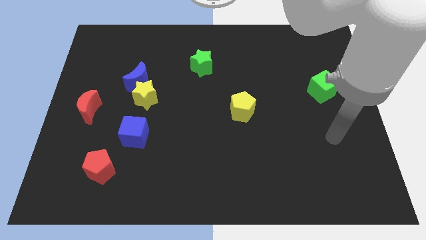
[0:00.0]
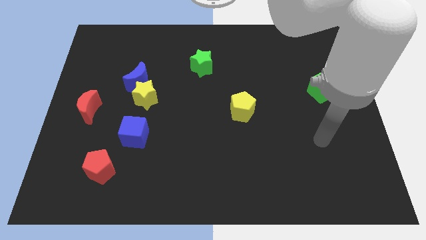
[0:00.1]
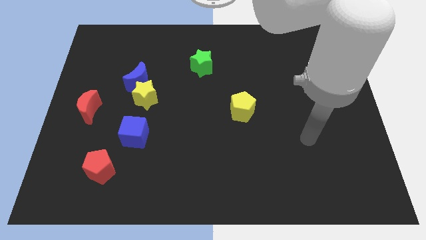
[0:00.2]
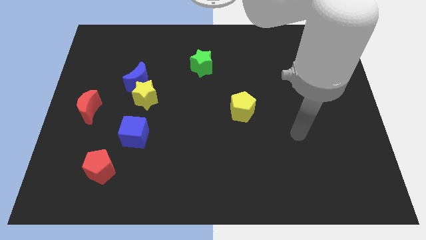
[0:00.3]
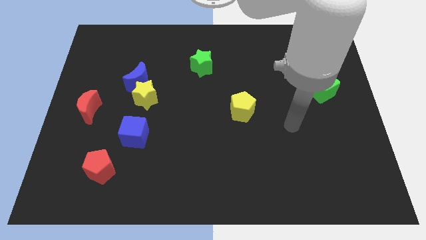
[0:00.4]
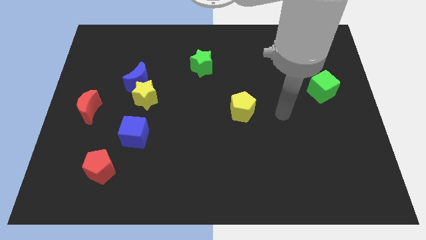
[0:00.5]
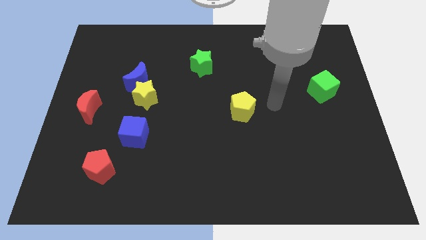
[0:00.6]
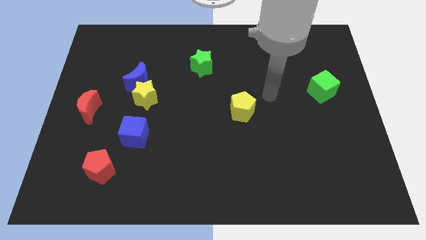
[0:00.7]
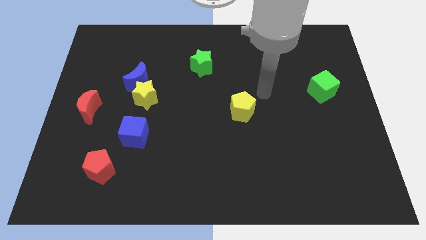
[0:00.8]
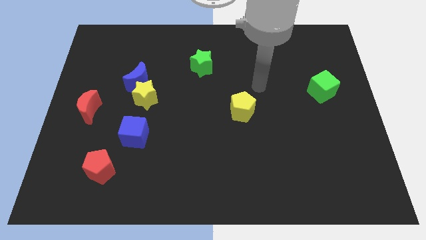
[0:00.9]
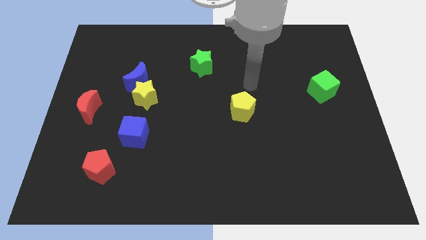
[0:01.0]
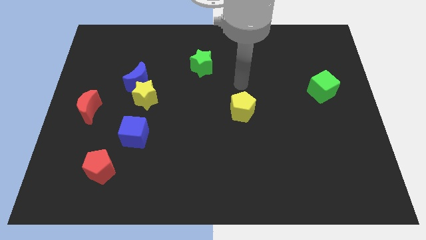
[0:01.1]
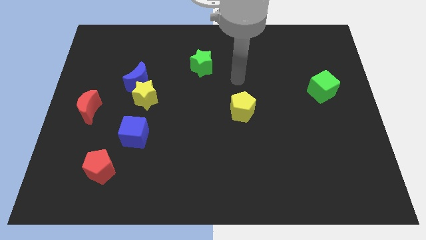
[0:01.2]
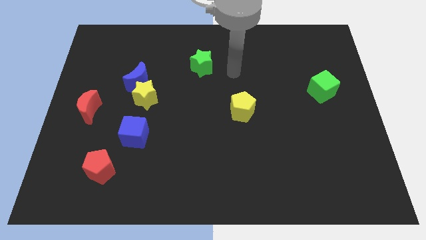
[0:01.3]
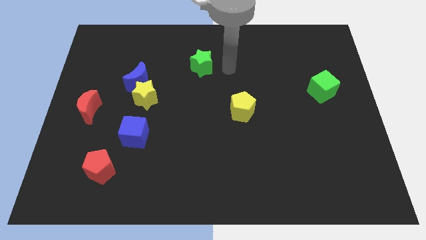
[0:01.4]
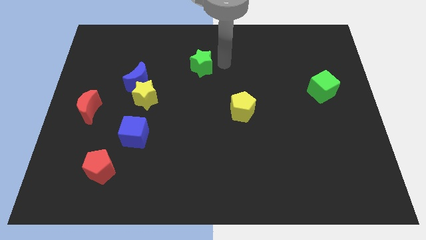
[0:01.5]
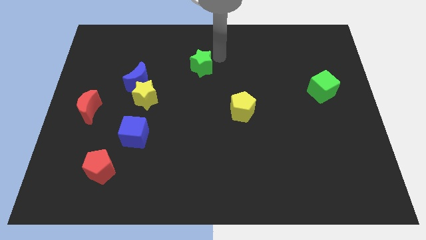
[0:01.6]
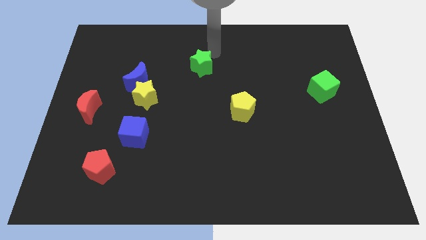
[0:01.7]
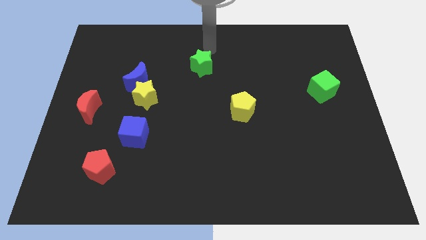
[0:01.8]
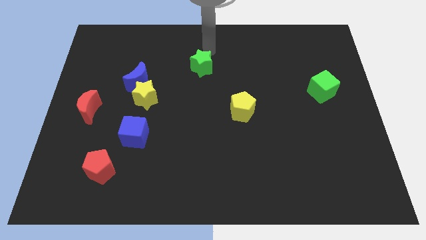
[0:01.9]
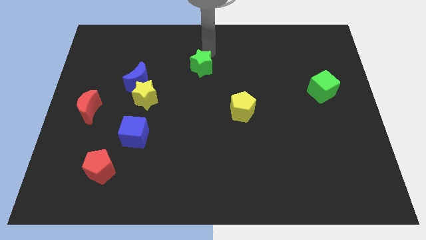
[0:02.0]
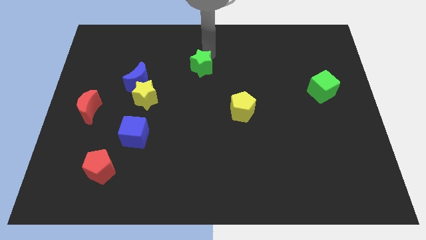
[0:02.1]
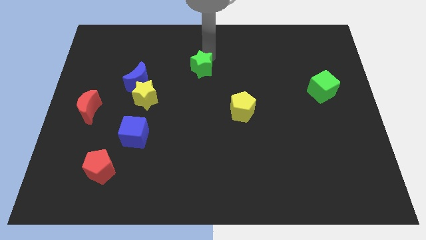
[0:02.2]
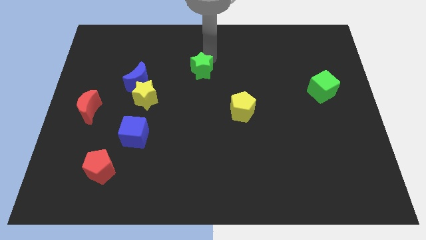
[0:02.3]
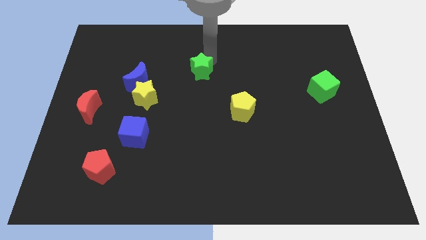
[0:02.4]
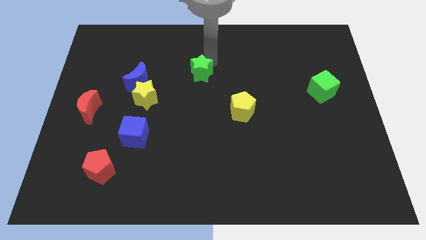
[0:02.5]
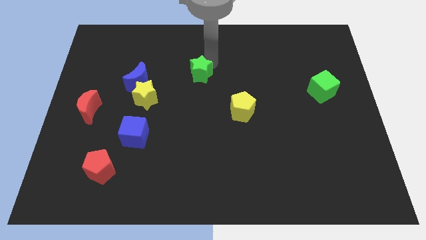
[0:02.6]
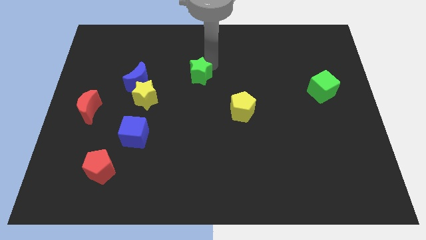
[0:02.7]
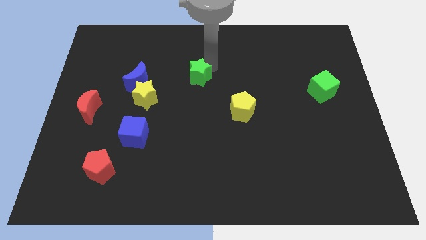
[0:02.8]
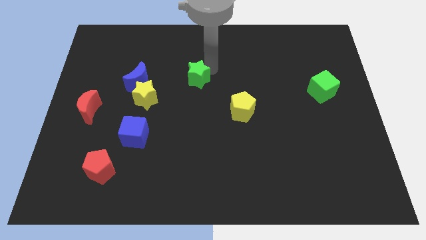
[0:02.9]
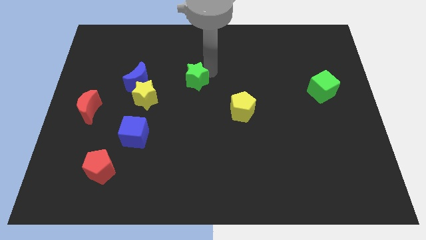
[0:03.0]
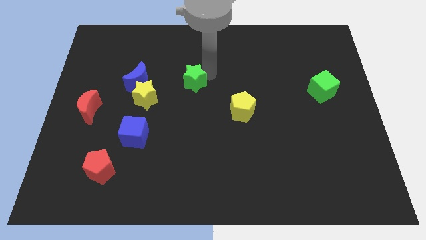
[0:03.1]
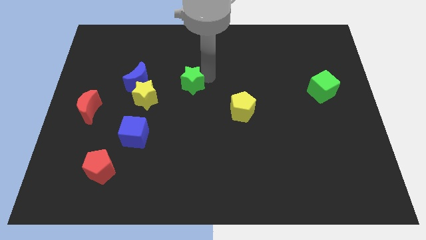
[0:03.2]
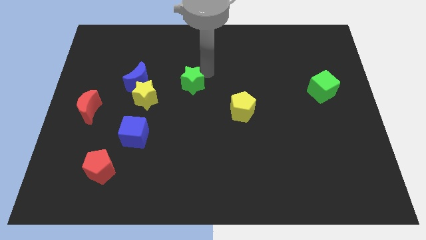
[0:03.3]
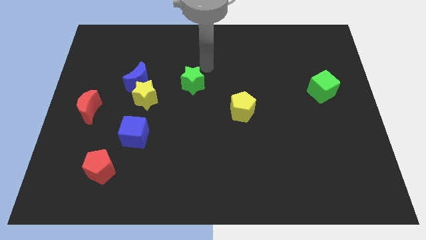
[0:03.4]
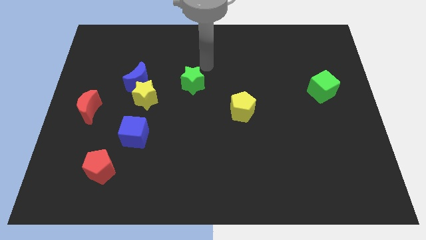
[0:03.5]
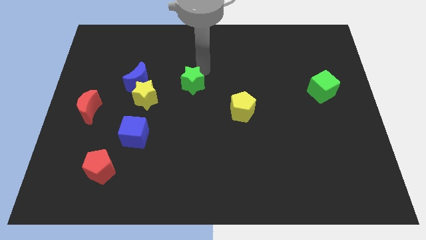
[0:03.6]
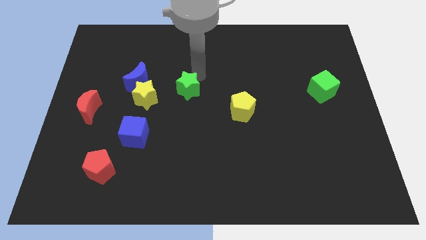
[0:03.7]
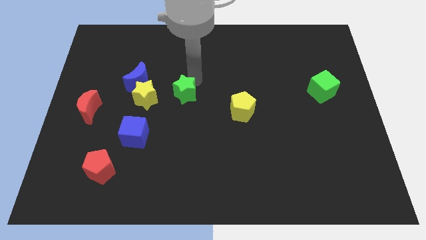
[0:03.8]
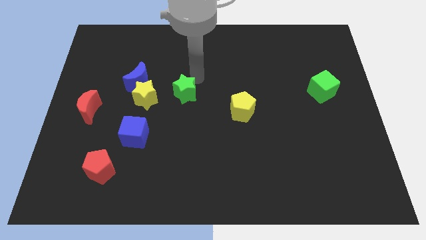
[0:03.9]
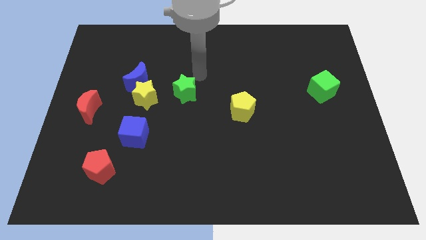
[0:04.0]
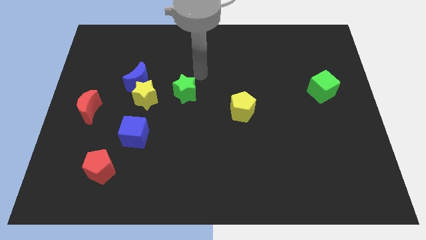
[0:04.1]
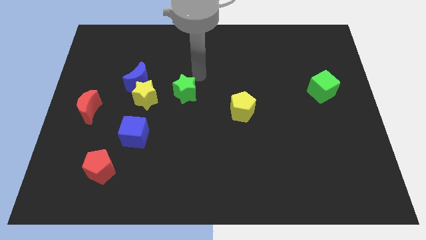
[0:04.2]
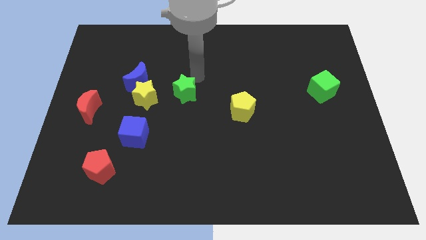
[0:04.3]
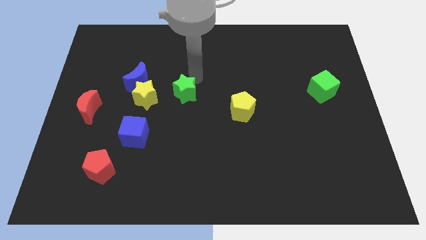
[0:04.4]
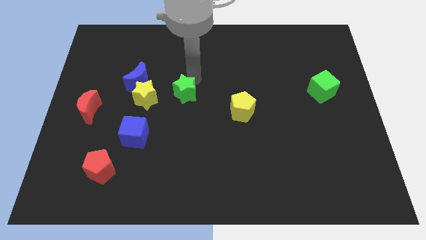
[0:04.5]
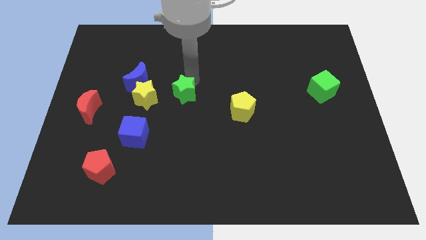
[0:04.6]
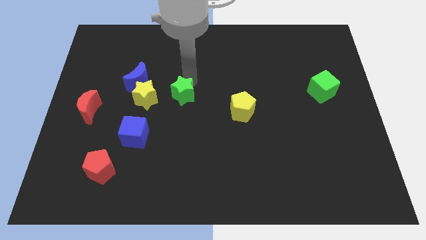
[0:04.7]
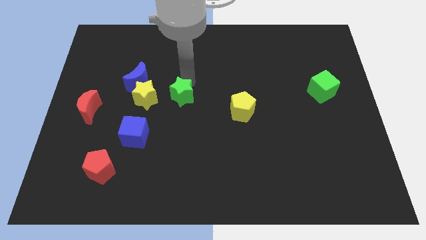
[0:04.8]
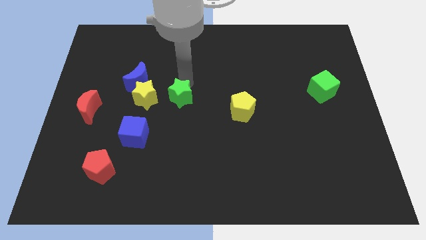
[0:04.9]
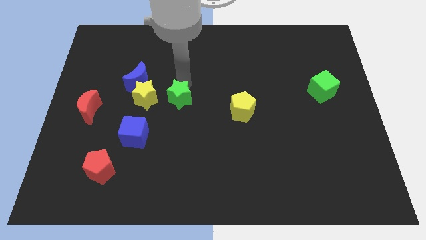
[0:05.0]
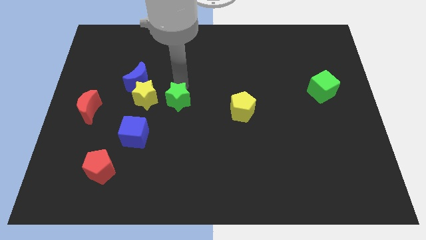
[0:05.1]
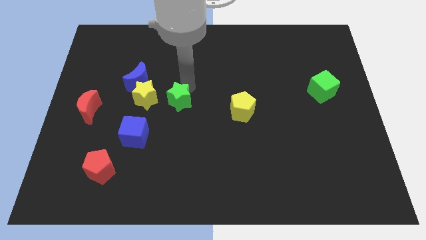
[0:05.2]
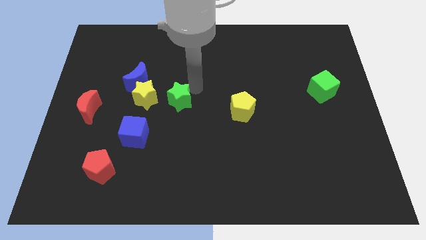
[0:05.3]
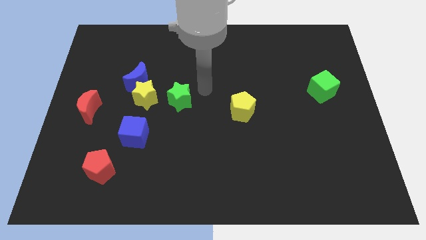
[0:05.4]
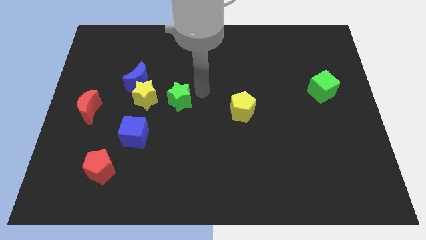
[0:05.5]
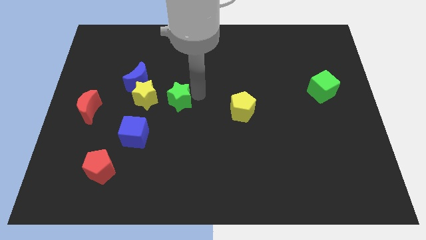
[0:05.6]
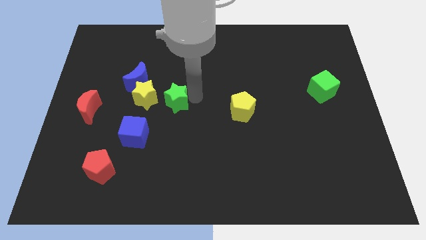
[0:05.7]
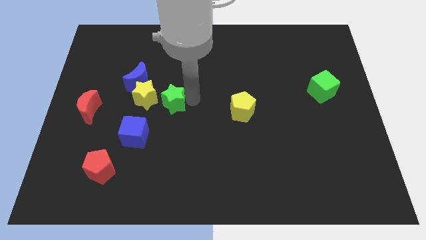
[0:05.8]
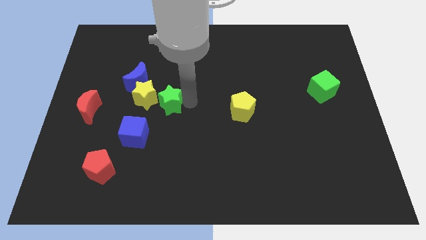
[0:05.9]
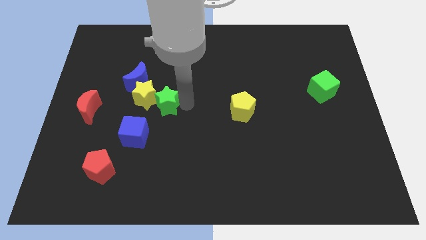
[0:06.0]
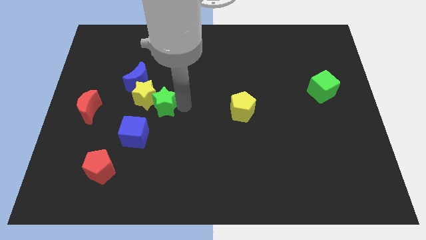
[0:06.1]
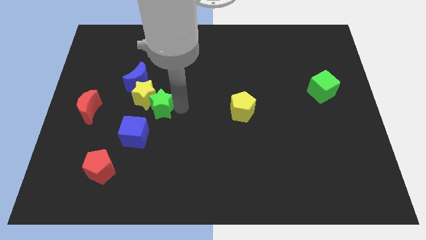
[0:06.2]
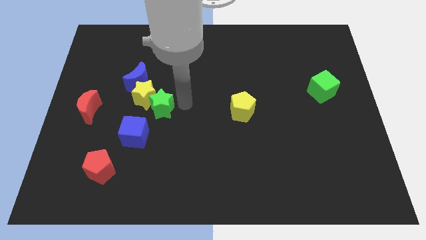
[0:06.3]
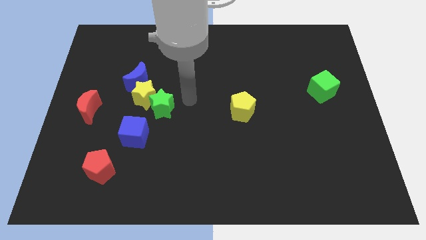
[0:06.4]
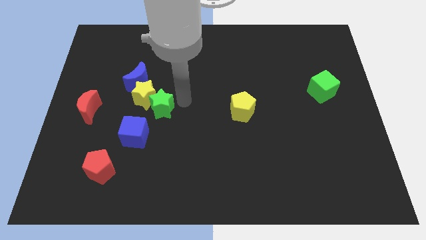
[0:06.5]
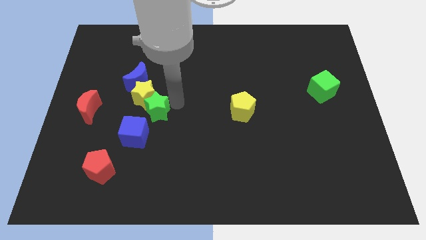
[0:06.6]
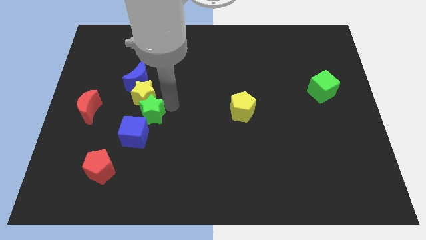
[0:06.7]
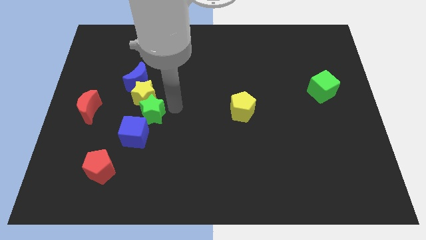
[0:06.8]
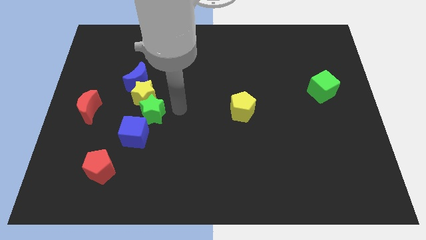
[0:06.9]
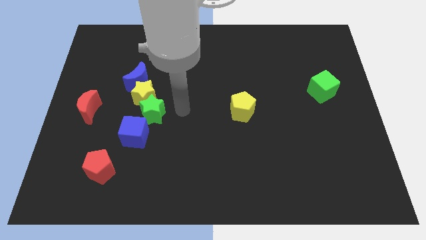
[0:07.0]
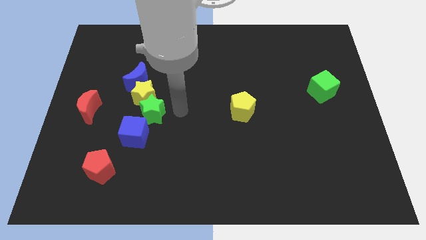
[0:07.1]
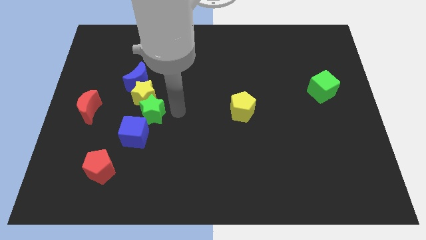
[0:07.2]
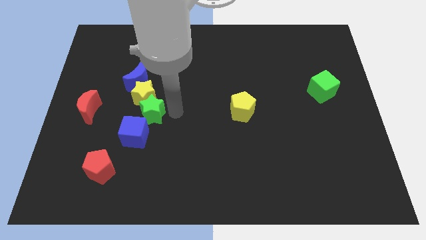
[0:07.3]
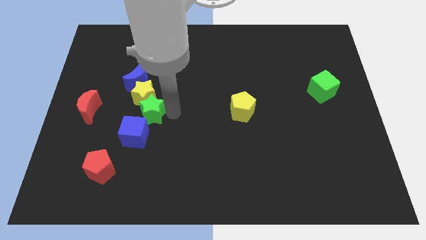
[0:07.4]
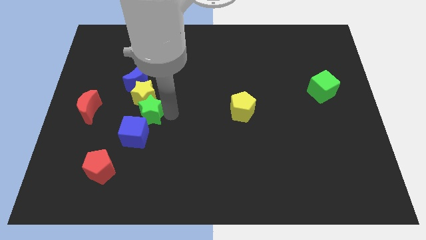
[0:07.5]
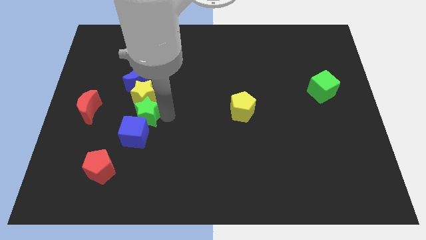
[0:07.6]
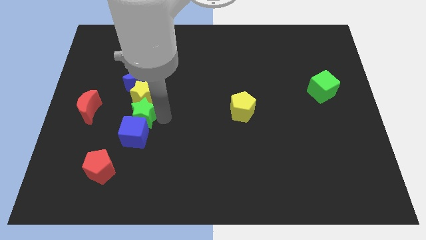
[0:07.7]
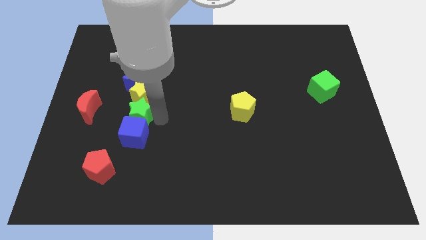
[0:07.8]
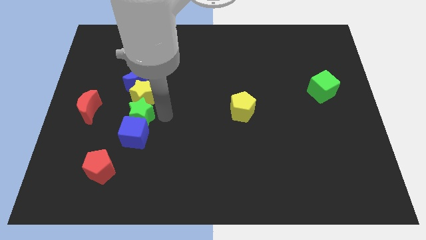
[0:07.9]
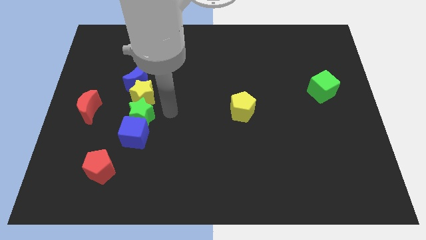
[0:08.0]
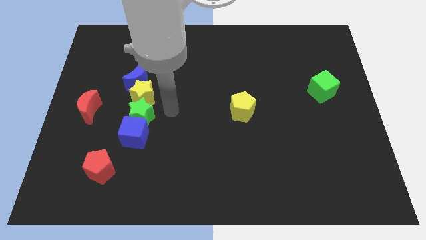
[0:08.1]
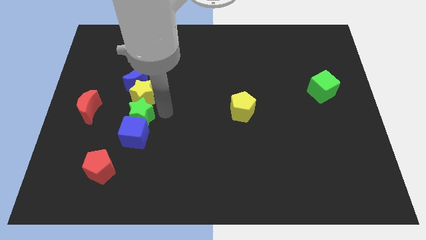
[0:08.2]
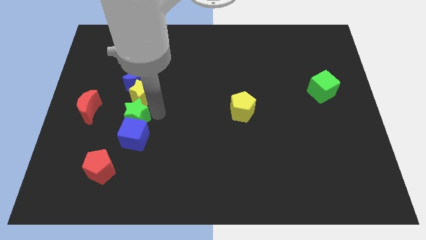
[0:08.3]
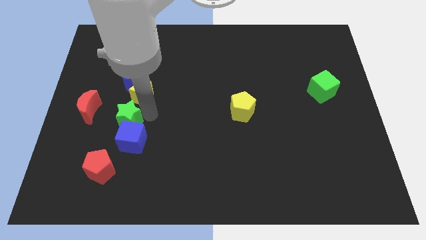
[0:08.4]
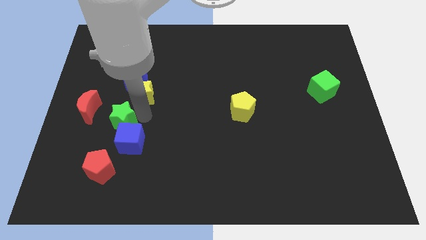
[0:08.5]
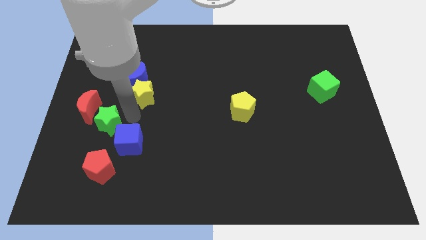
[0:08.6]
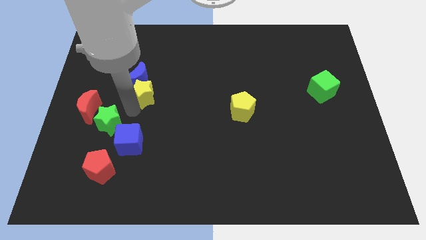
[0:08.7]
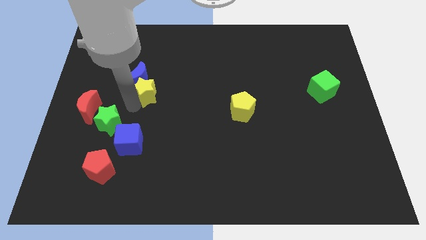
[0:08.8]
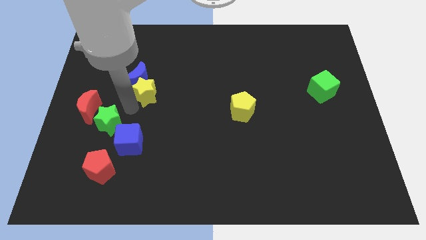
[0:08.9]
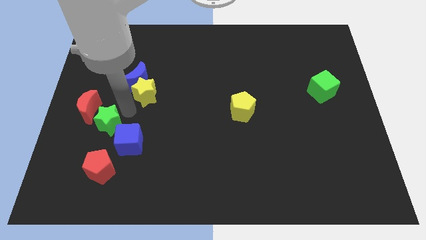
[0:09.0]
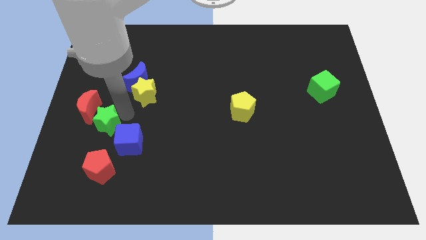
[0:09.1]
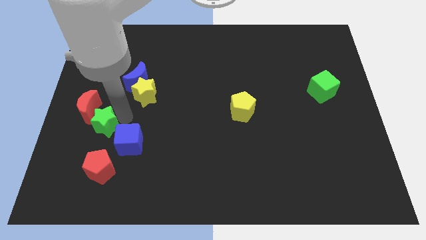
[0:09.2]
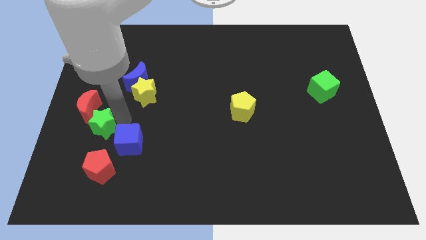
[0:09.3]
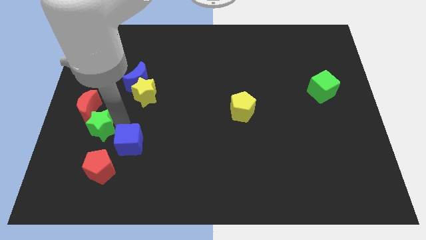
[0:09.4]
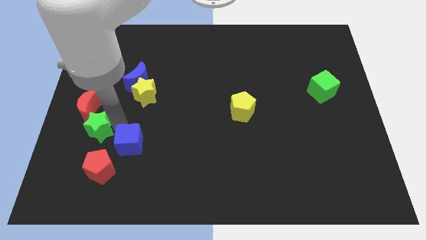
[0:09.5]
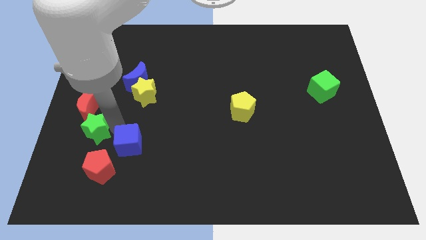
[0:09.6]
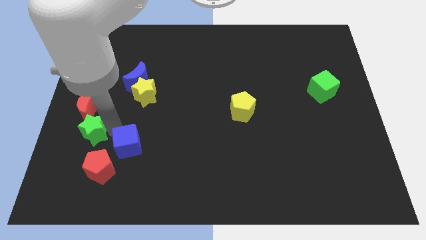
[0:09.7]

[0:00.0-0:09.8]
put the green star to the top left of the red pentagon
